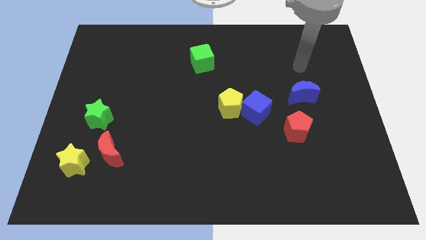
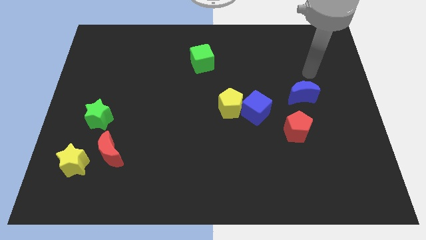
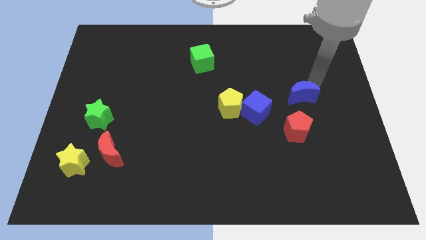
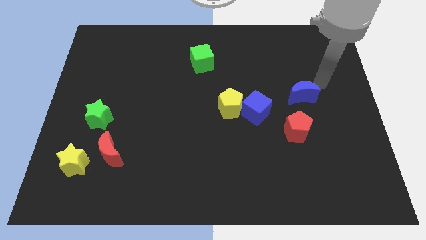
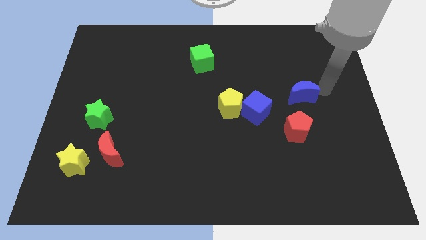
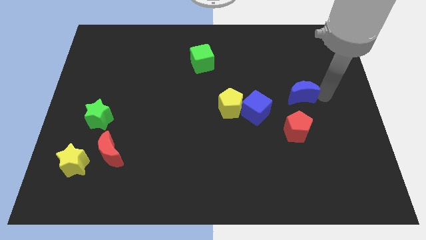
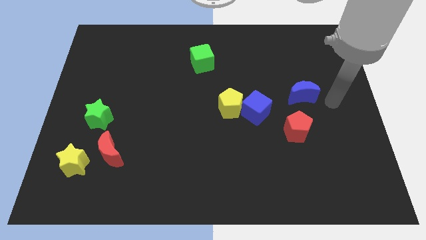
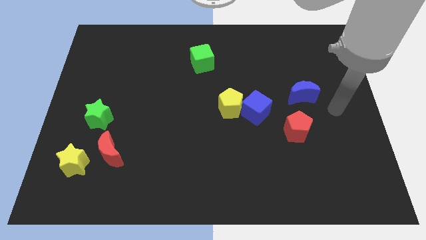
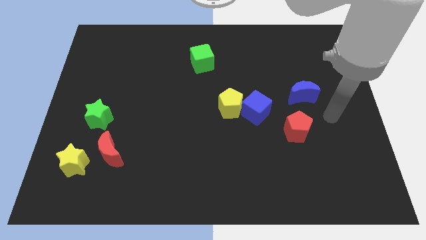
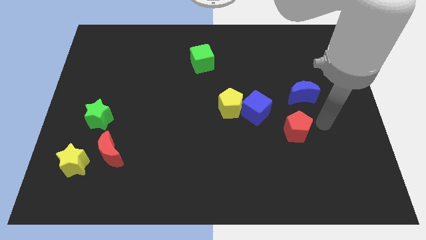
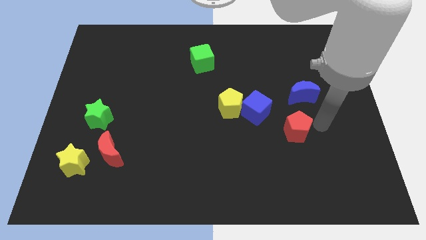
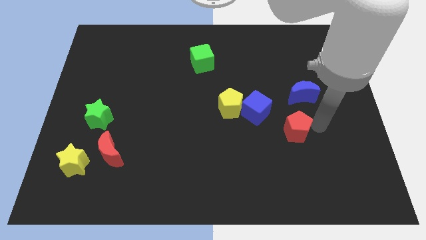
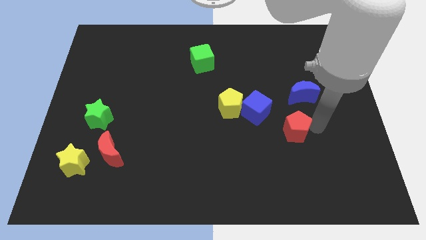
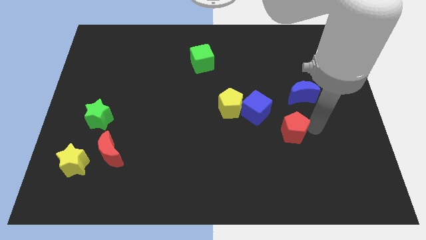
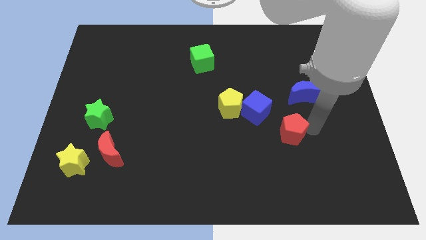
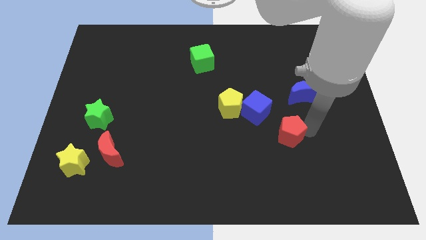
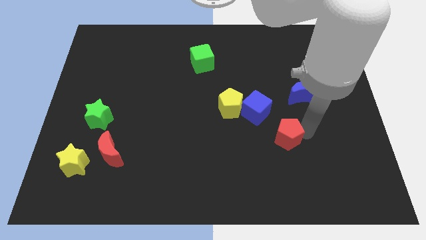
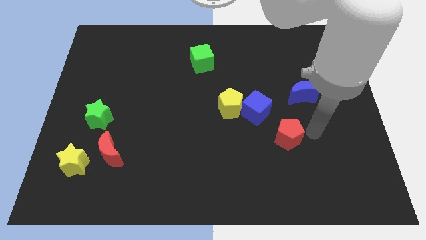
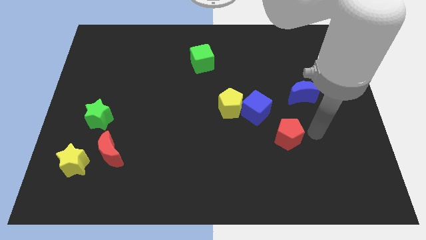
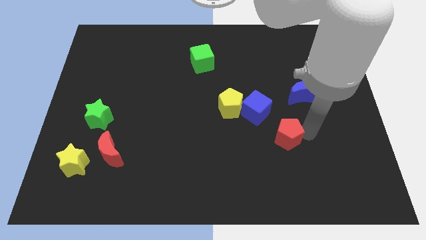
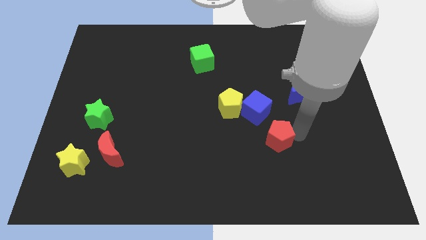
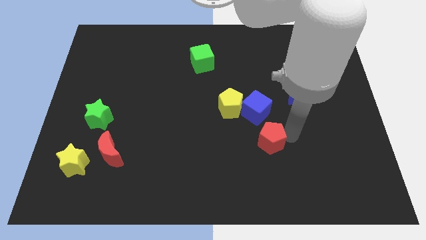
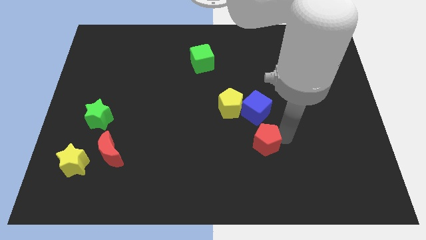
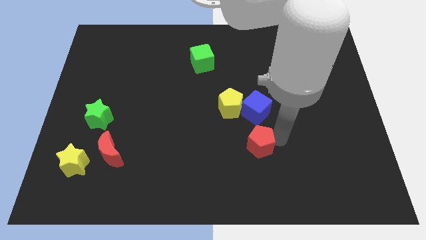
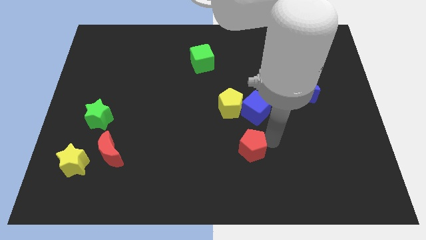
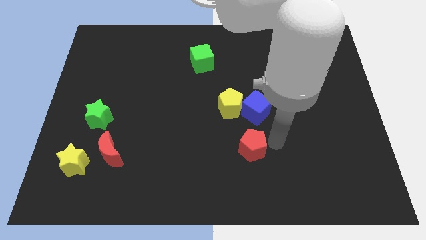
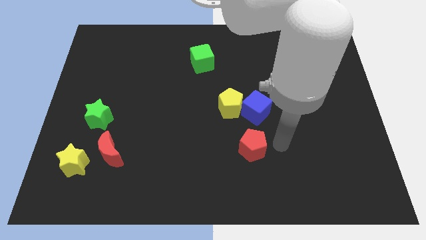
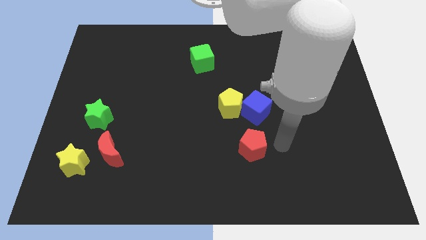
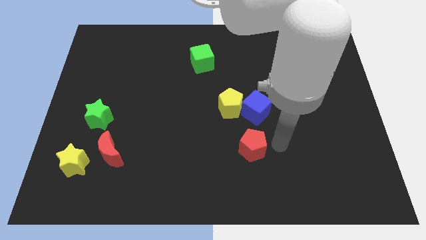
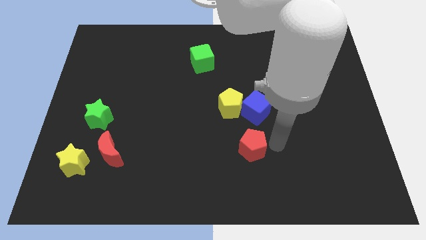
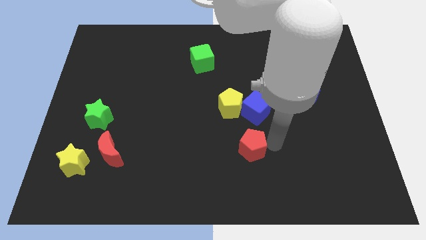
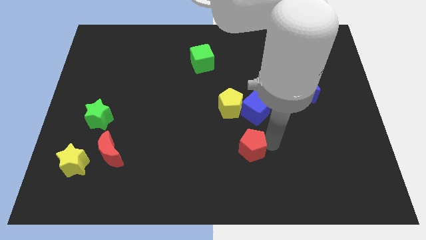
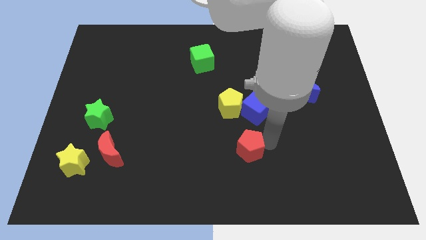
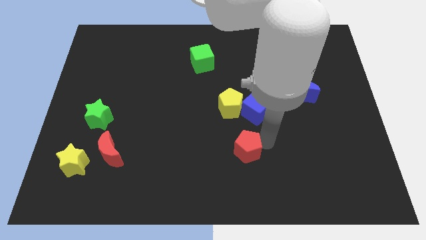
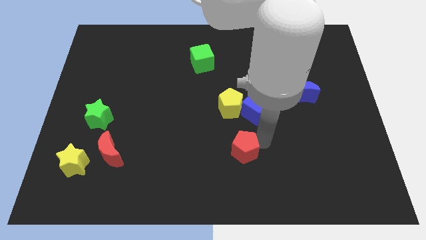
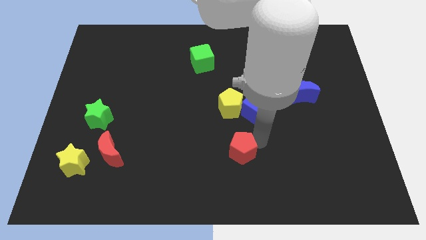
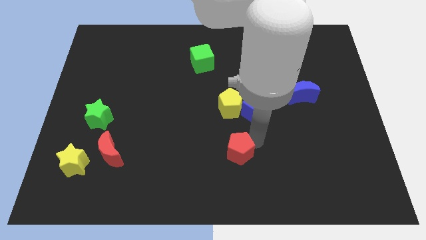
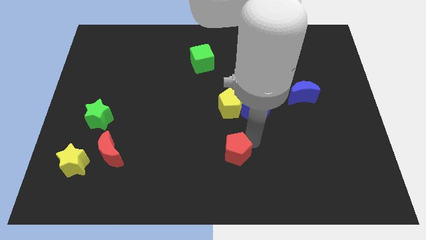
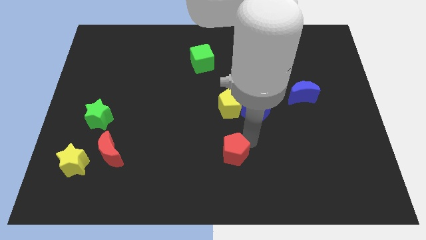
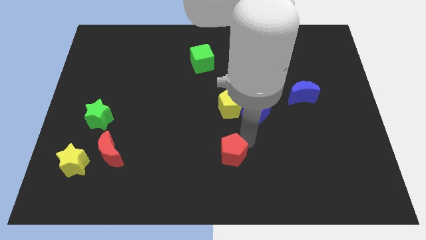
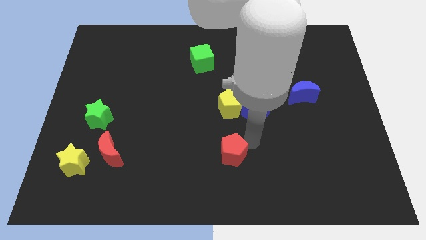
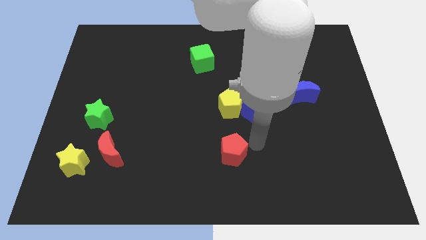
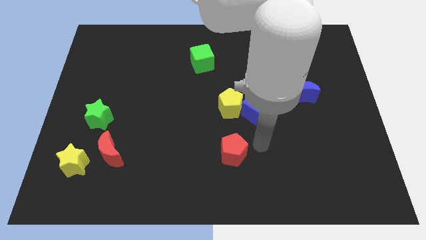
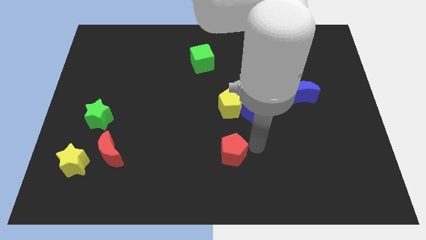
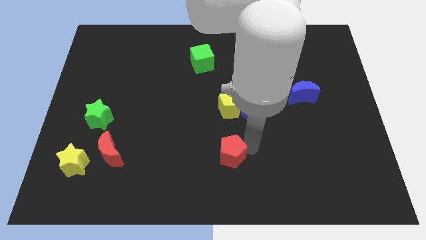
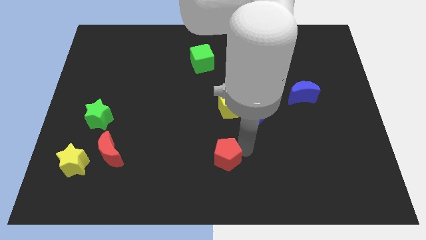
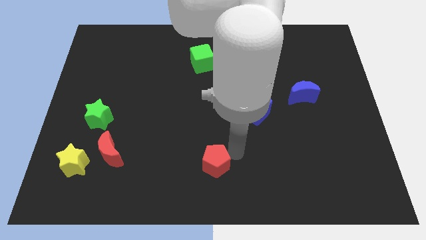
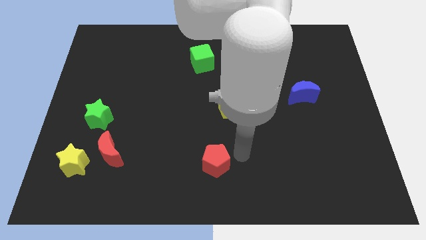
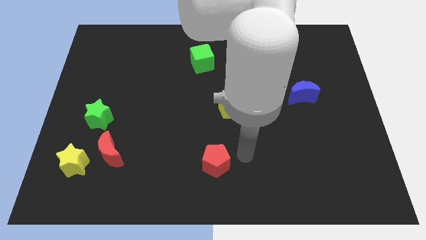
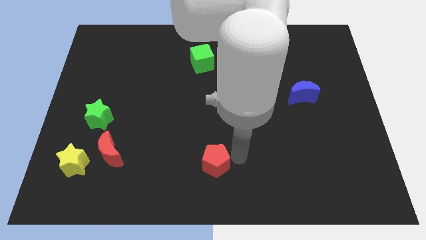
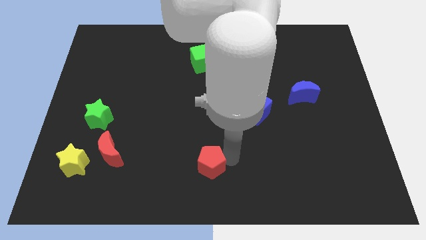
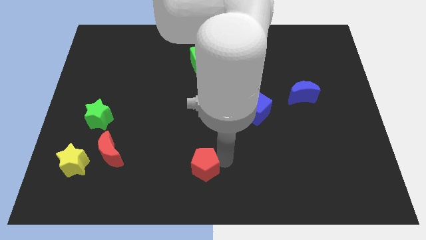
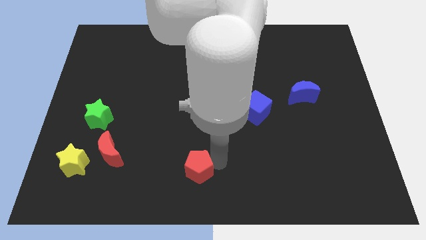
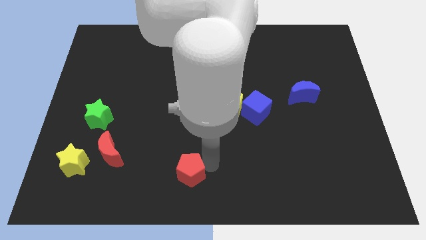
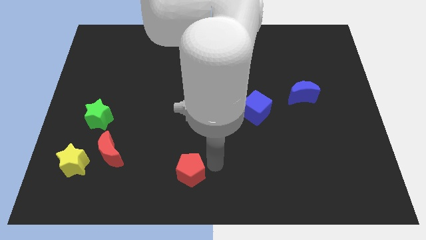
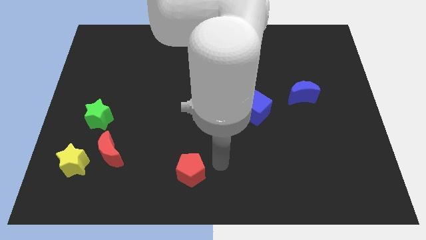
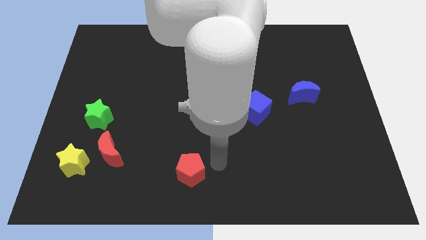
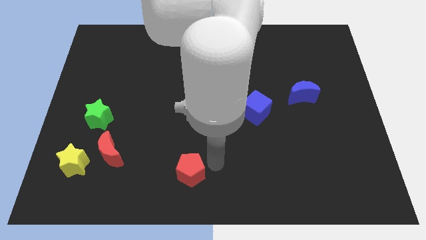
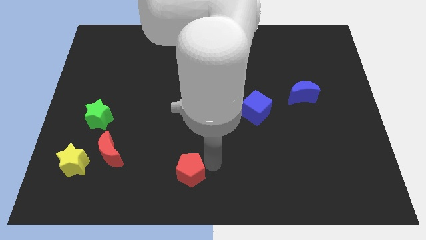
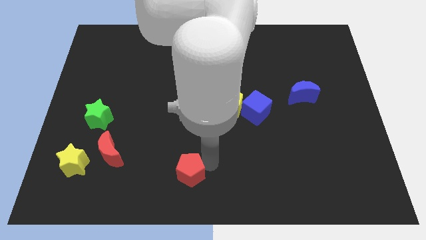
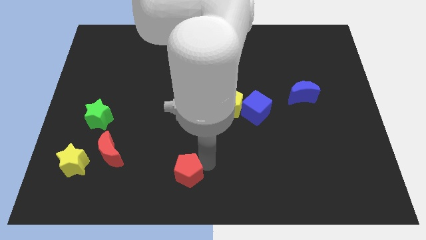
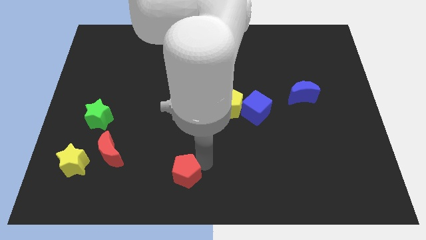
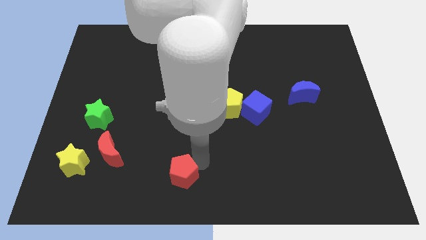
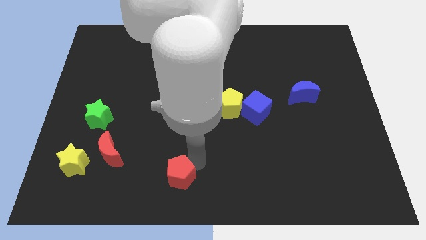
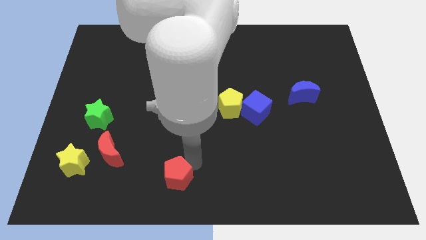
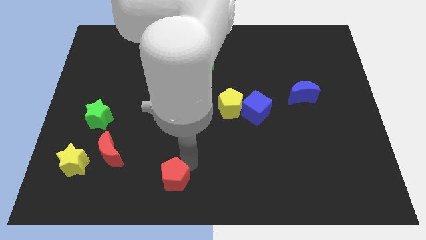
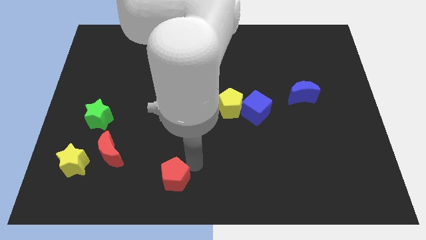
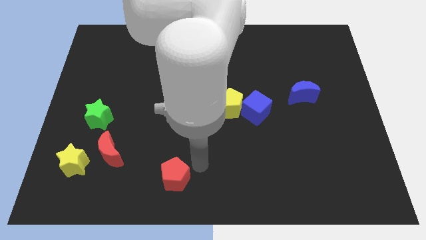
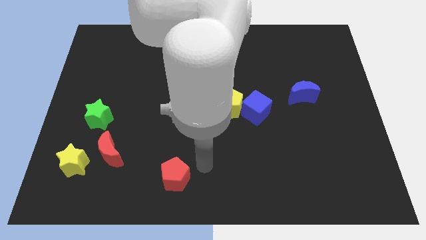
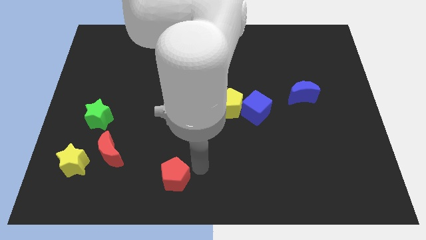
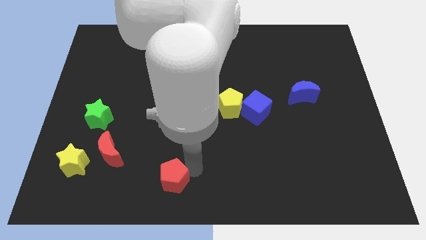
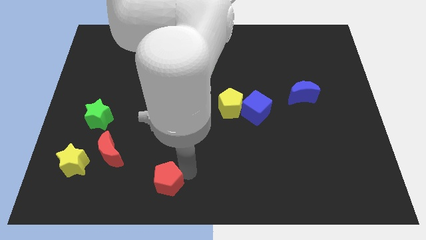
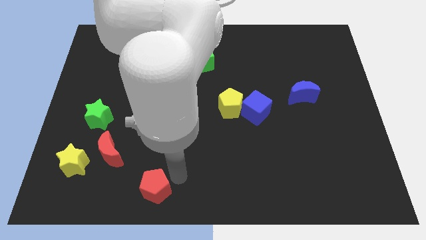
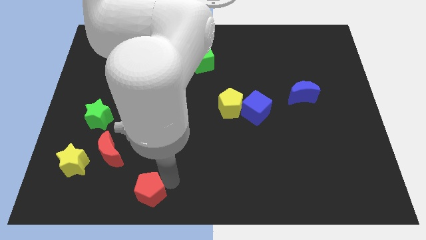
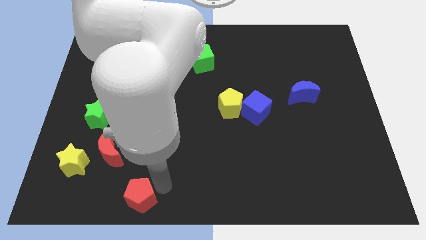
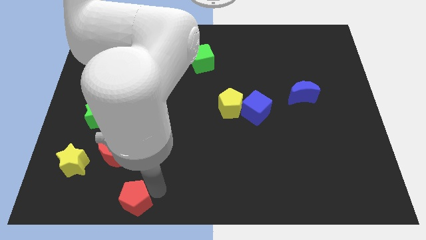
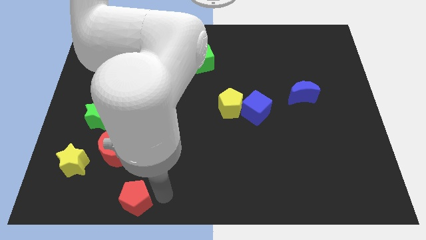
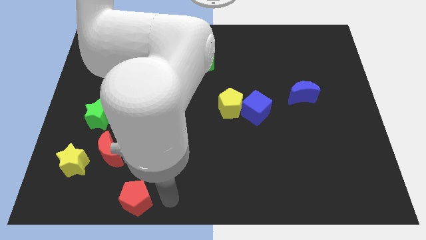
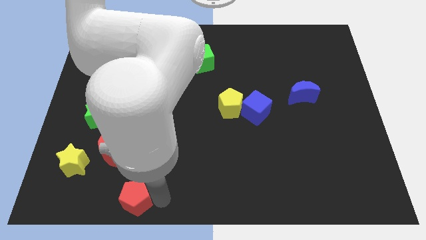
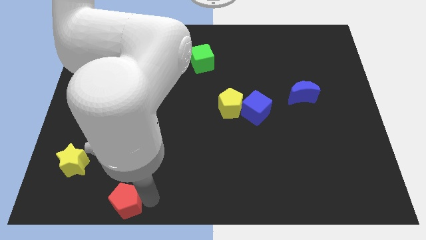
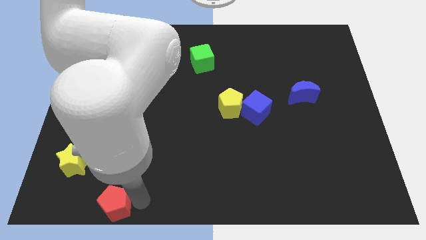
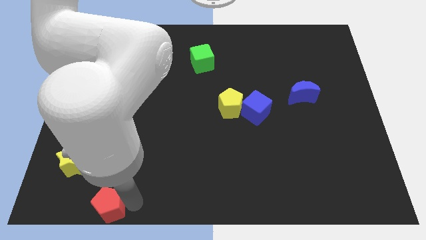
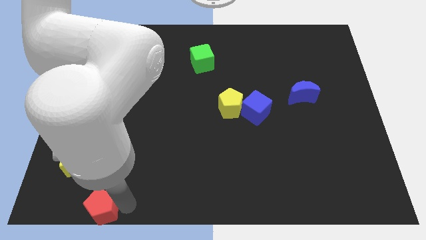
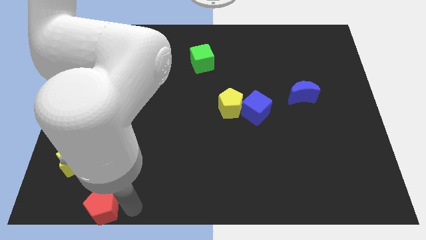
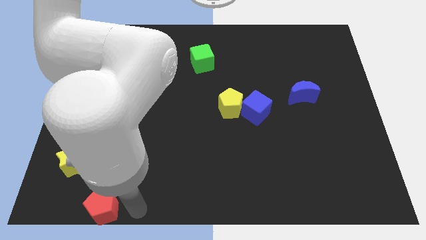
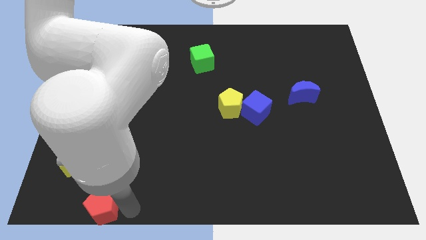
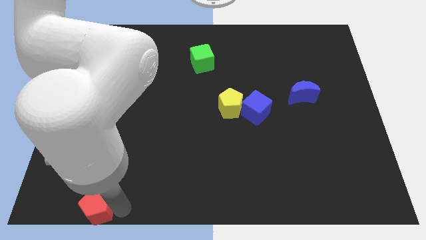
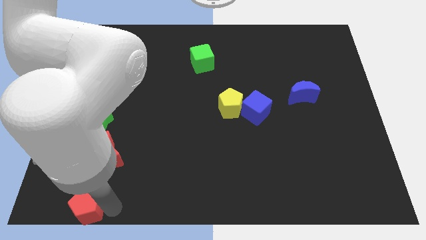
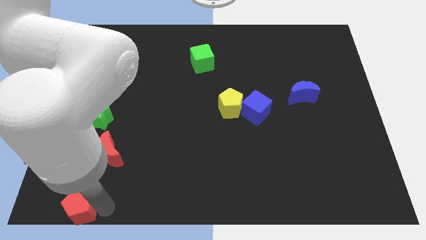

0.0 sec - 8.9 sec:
push the red pentagon to the bottom left
